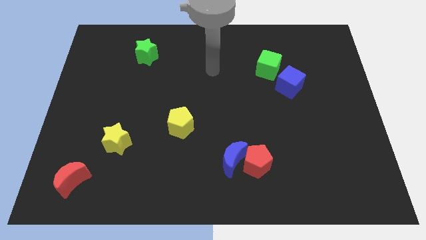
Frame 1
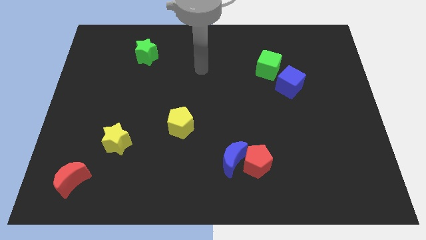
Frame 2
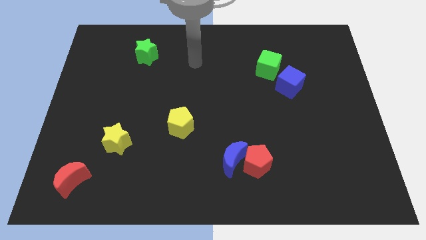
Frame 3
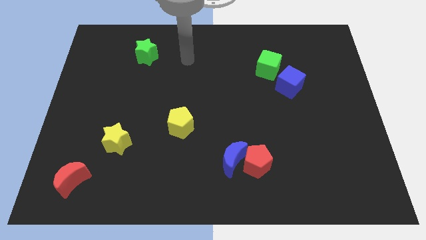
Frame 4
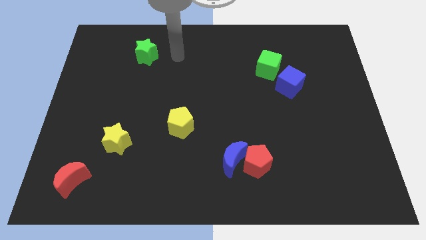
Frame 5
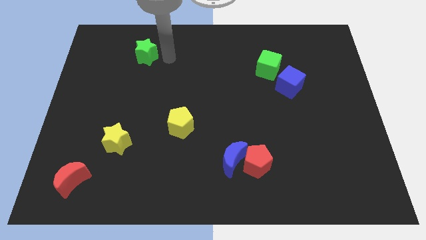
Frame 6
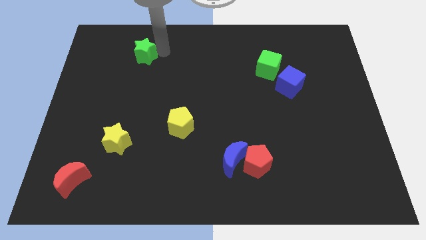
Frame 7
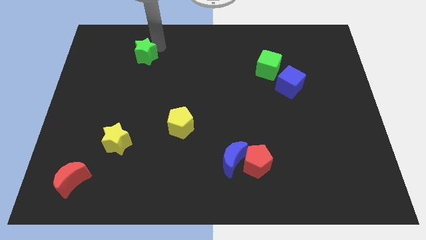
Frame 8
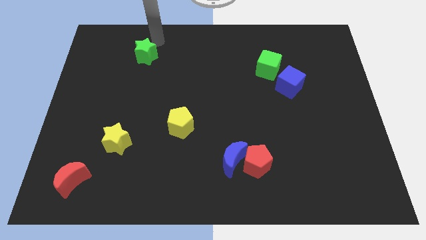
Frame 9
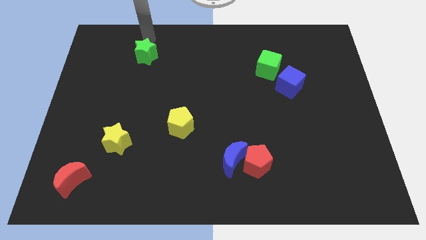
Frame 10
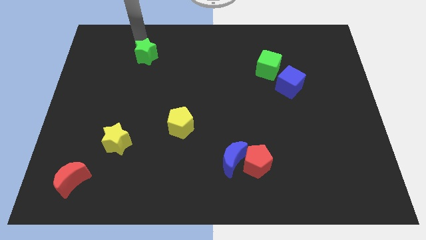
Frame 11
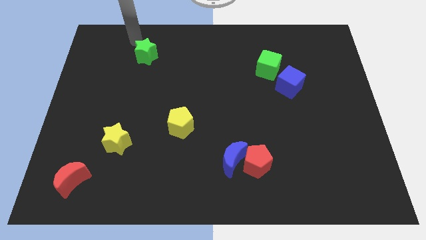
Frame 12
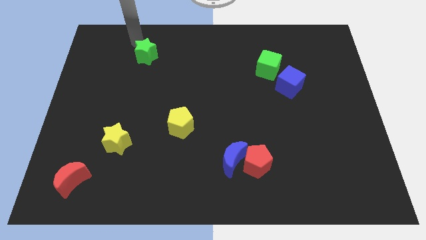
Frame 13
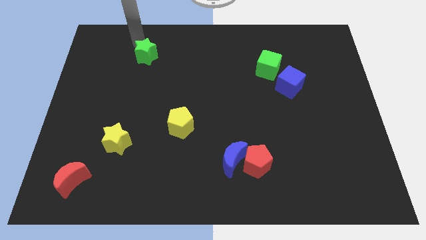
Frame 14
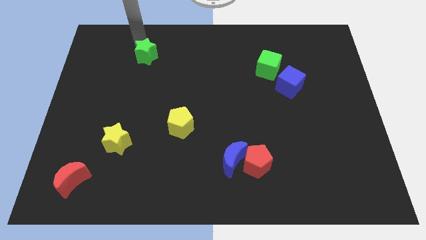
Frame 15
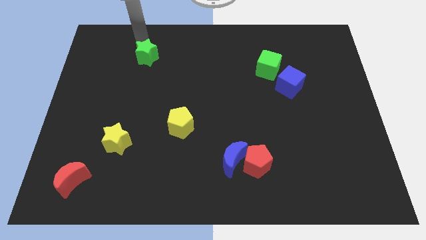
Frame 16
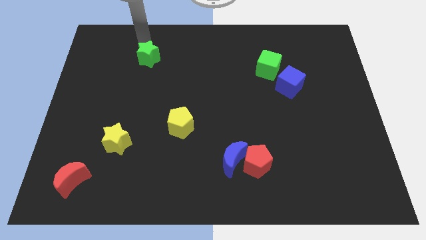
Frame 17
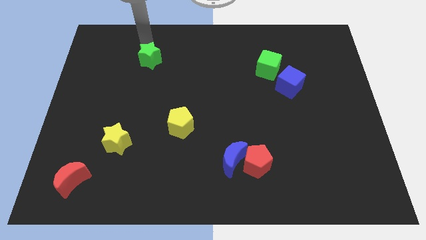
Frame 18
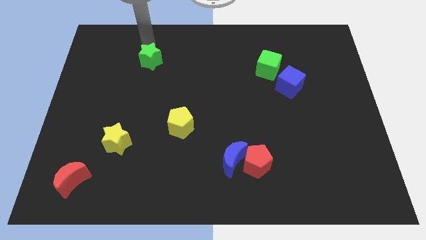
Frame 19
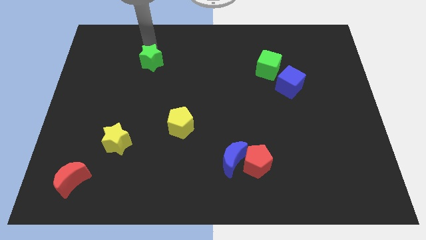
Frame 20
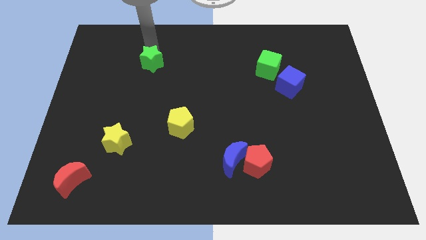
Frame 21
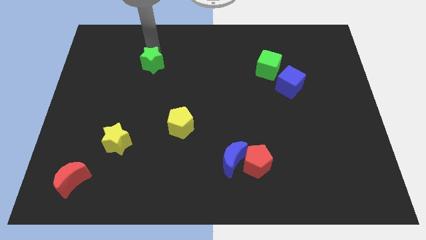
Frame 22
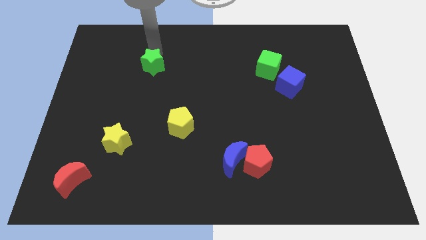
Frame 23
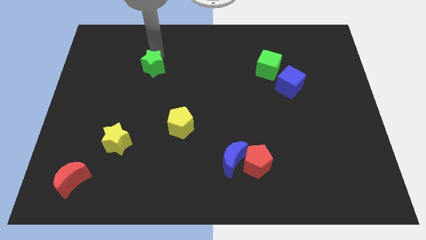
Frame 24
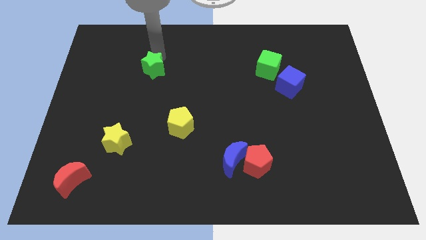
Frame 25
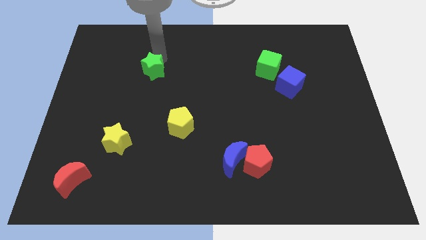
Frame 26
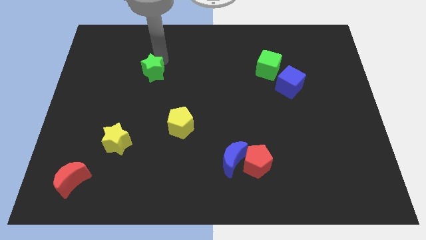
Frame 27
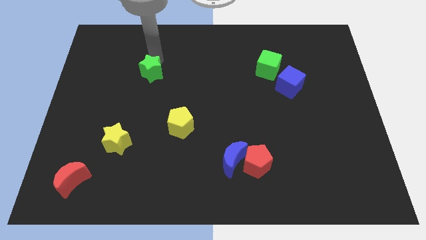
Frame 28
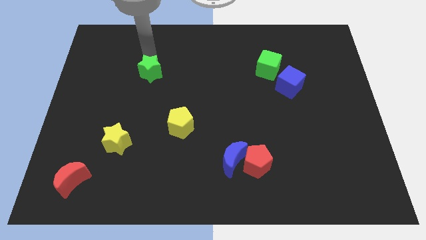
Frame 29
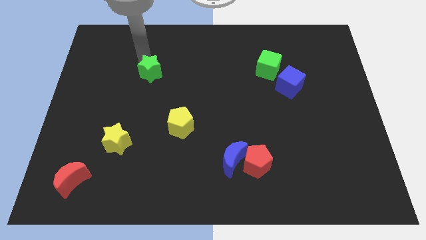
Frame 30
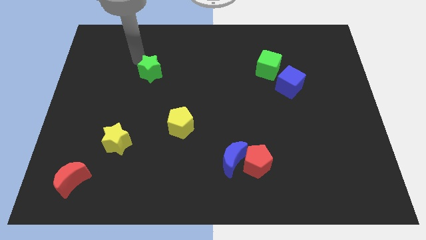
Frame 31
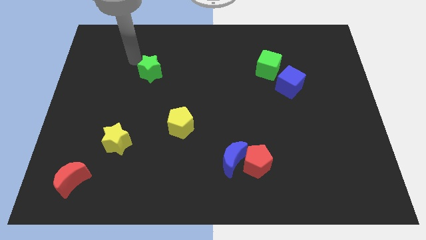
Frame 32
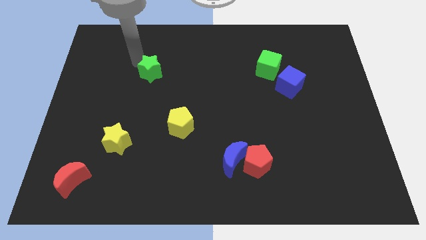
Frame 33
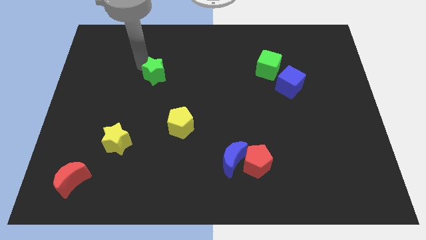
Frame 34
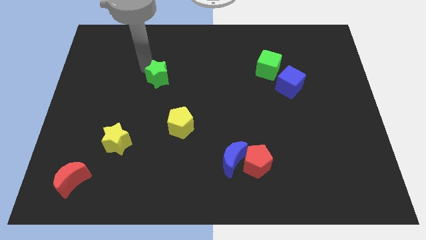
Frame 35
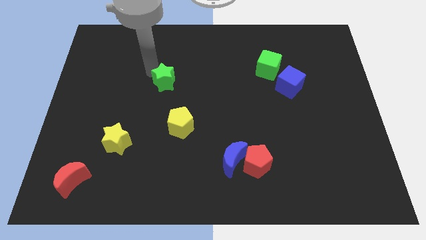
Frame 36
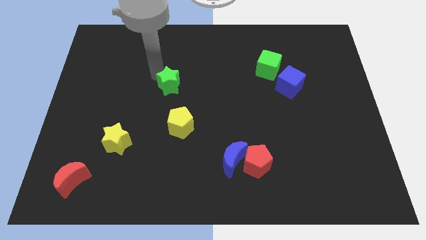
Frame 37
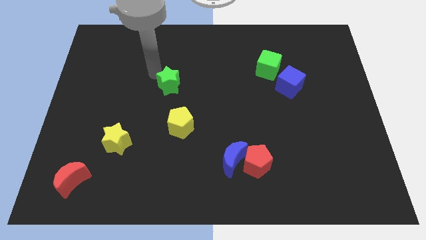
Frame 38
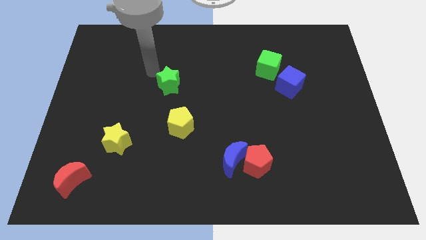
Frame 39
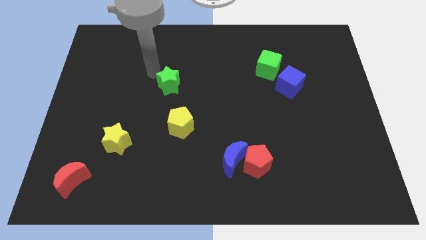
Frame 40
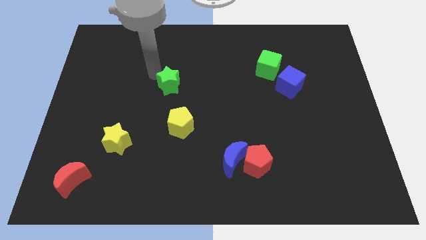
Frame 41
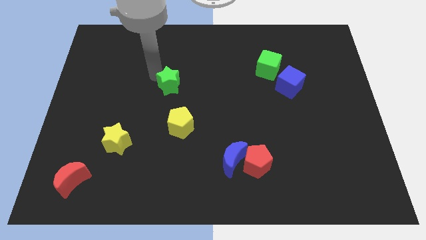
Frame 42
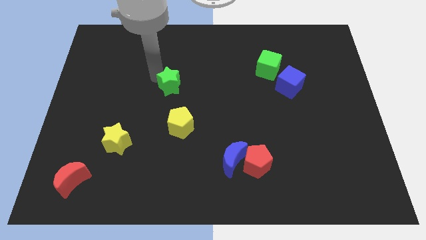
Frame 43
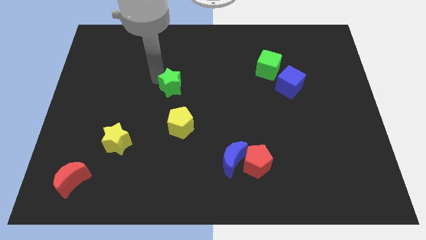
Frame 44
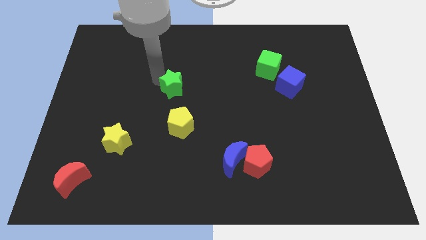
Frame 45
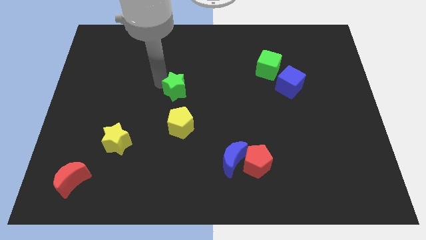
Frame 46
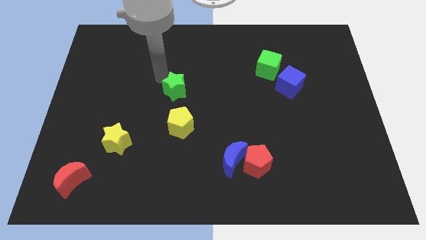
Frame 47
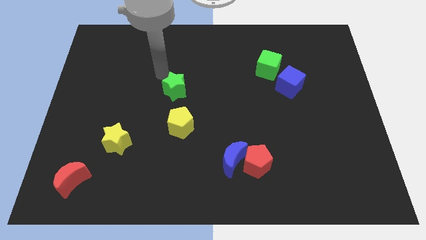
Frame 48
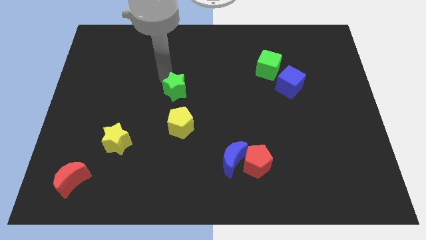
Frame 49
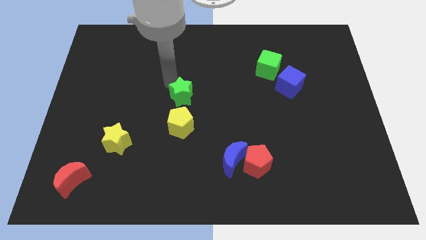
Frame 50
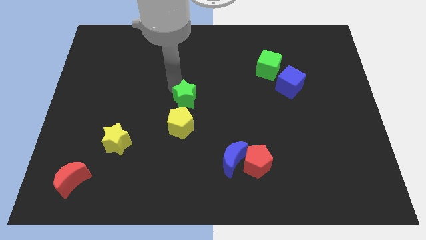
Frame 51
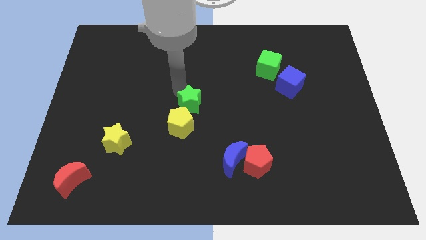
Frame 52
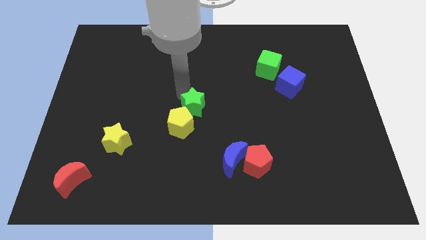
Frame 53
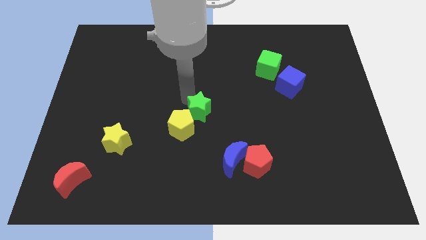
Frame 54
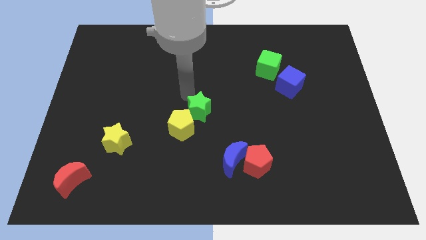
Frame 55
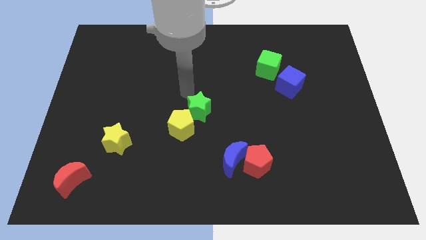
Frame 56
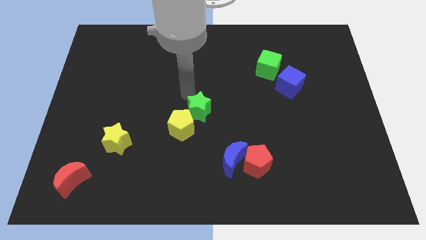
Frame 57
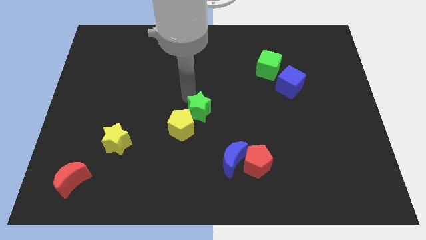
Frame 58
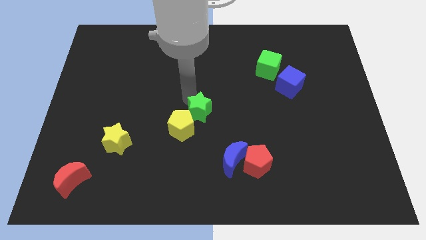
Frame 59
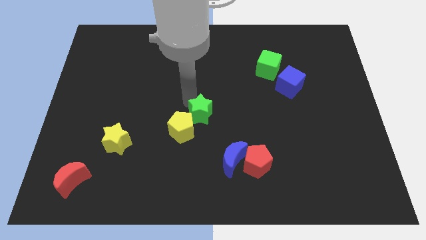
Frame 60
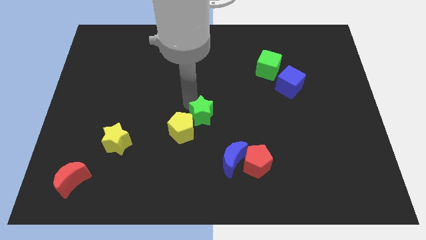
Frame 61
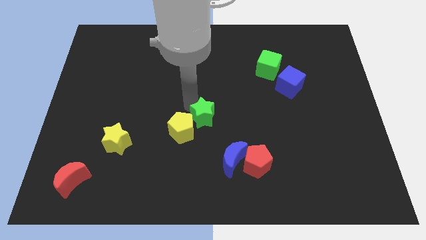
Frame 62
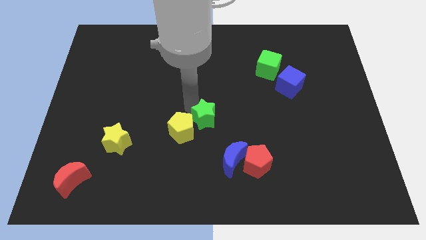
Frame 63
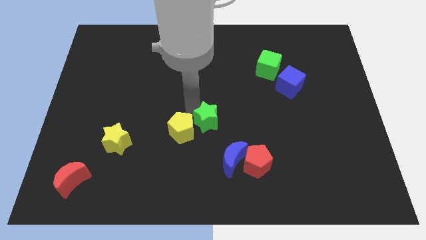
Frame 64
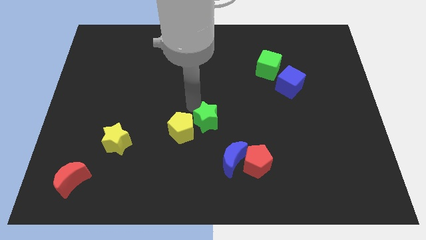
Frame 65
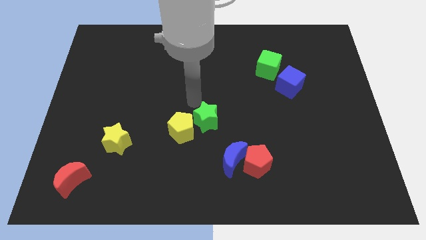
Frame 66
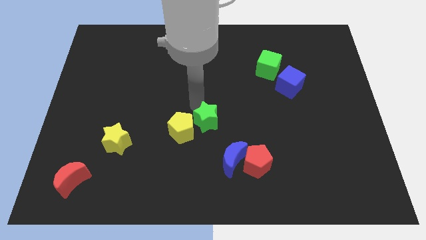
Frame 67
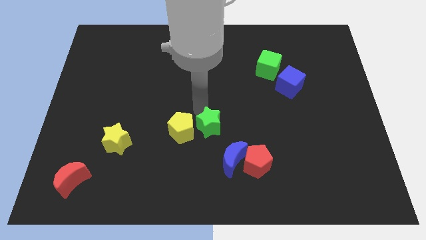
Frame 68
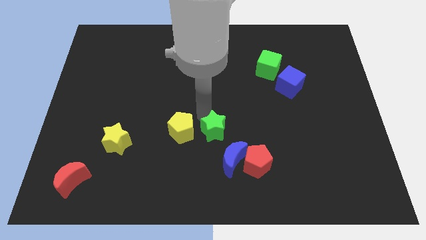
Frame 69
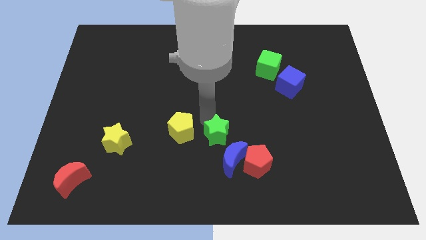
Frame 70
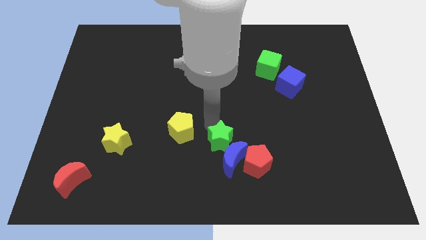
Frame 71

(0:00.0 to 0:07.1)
slide the green star towards the blue moon
